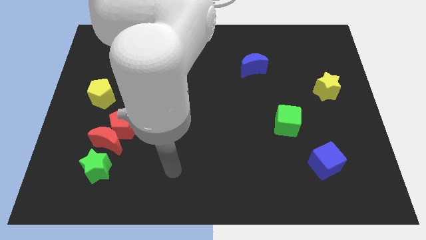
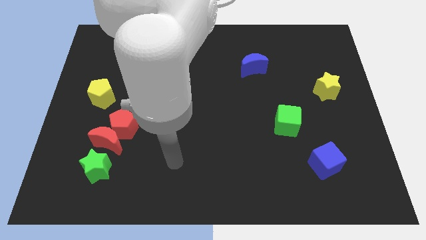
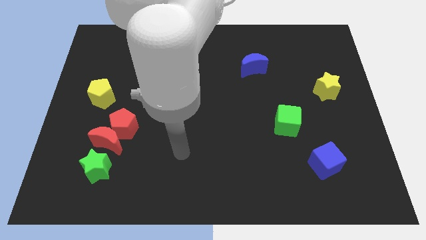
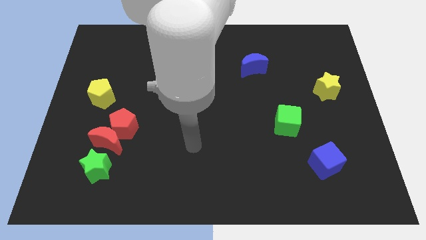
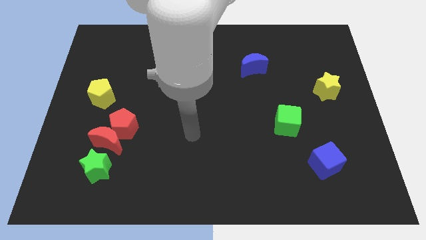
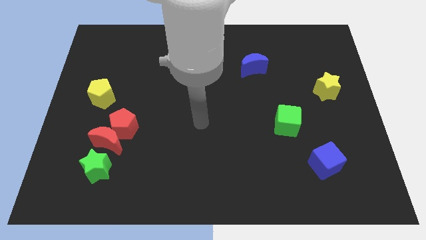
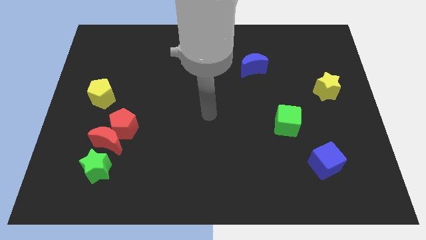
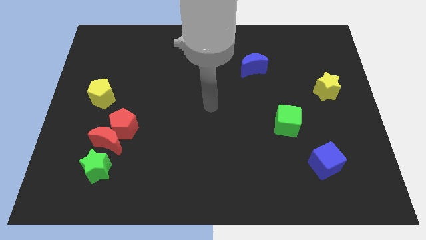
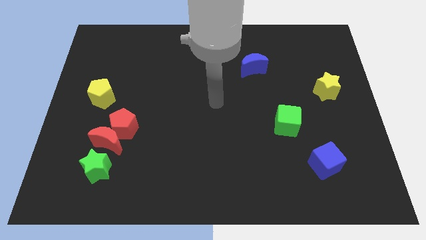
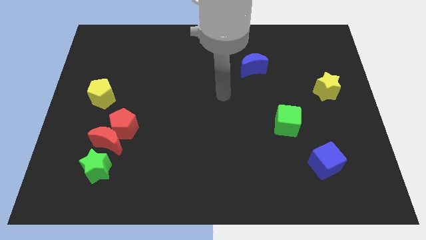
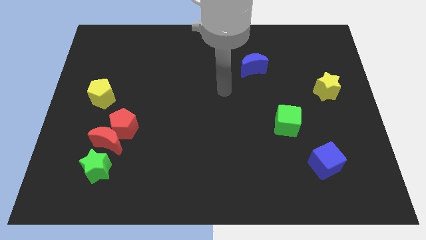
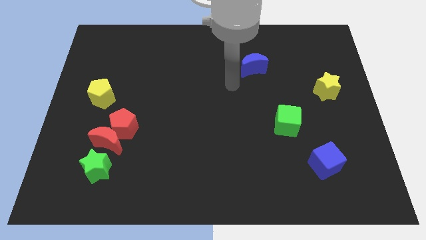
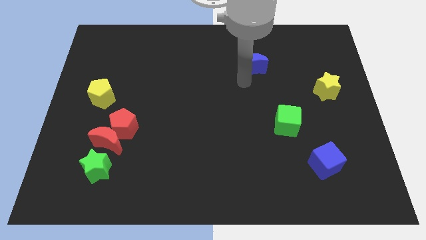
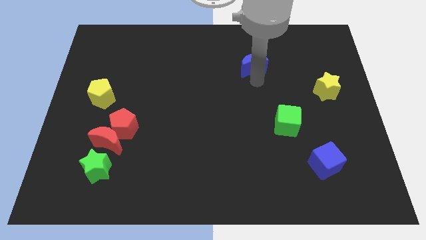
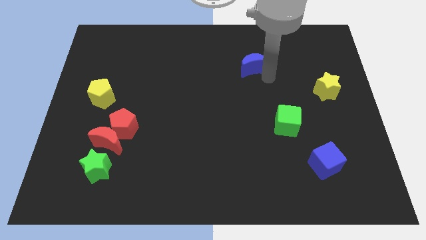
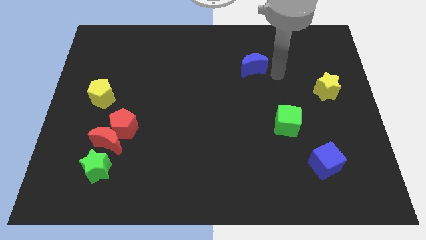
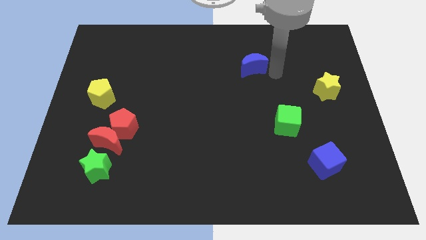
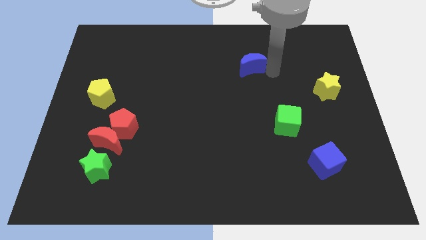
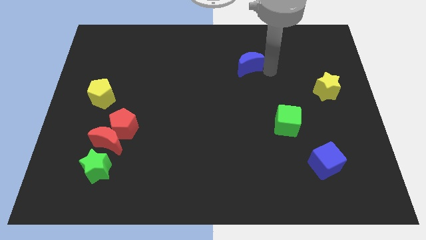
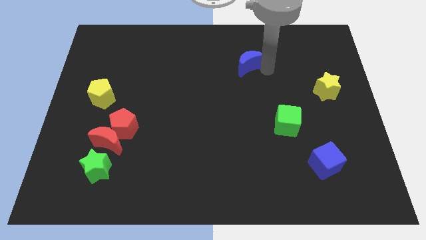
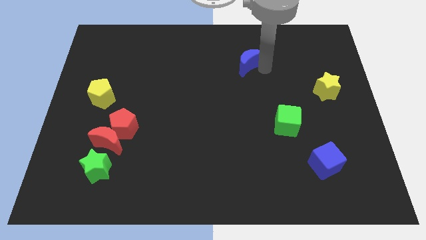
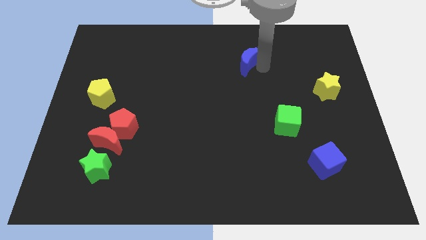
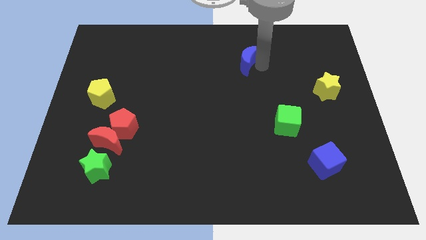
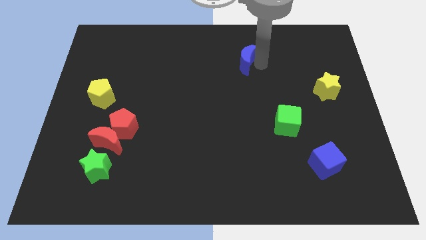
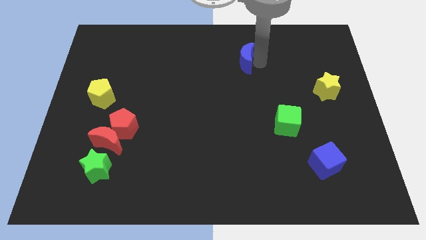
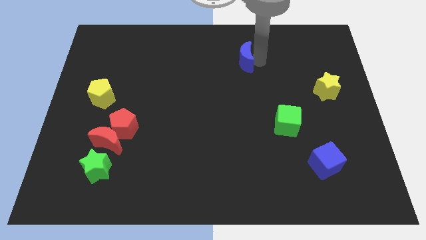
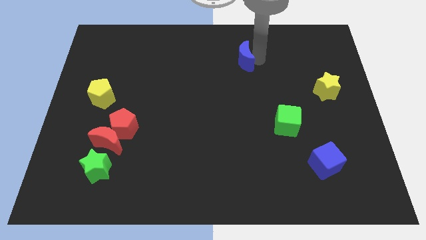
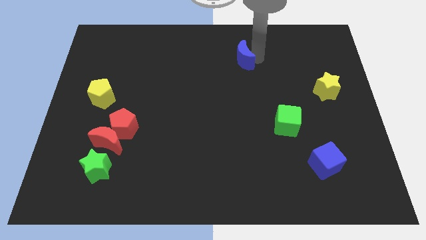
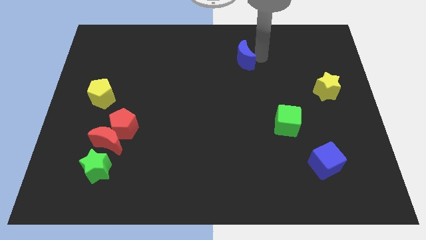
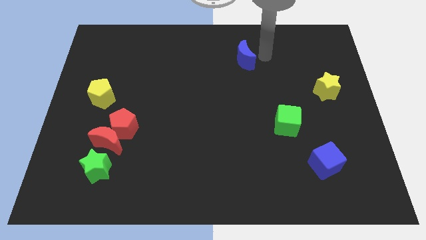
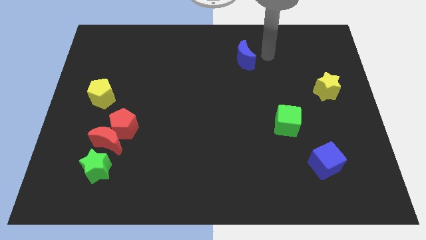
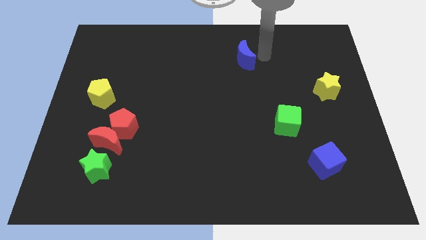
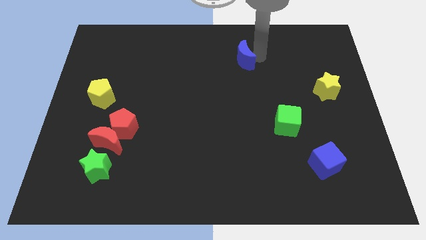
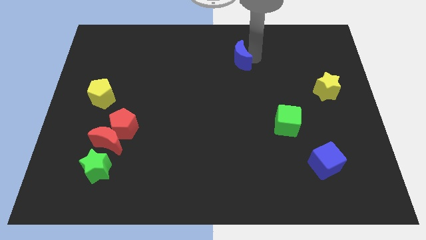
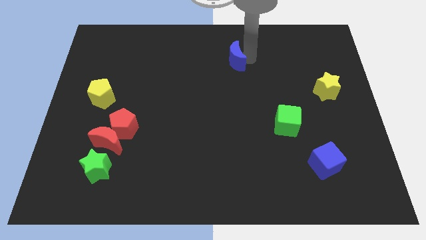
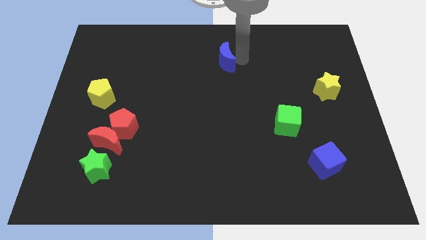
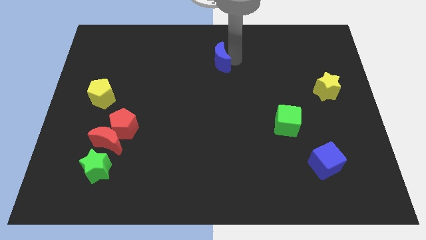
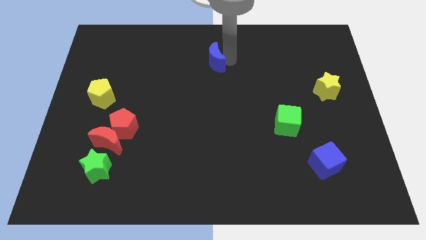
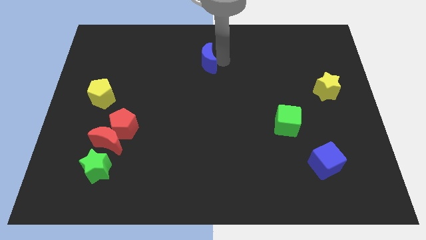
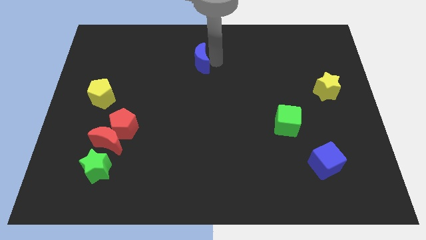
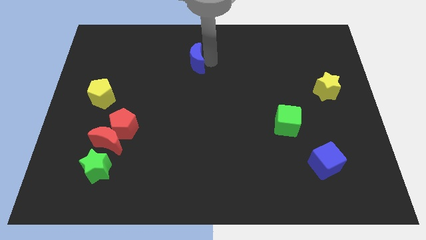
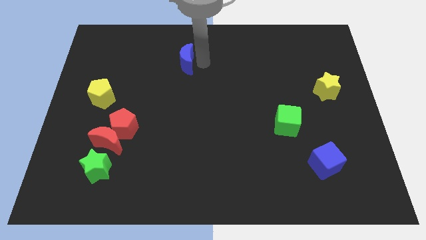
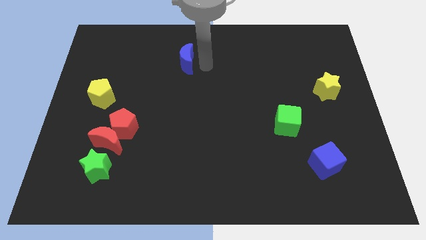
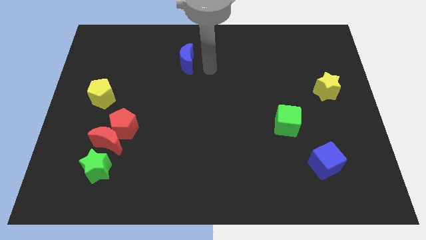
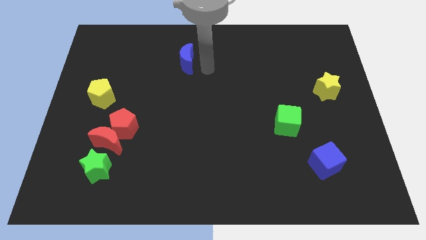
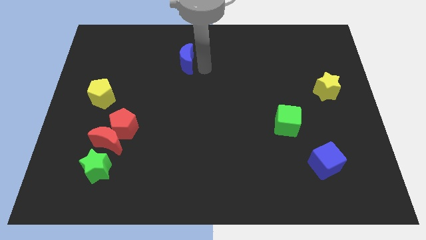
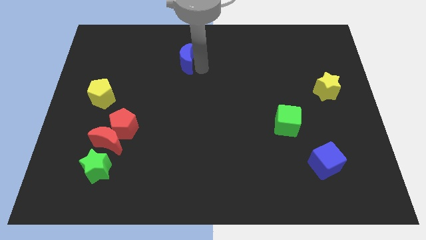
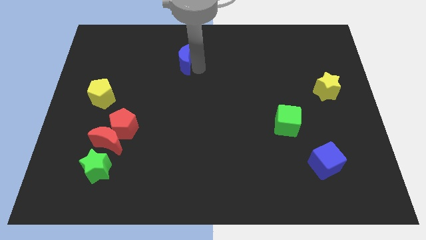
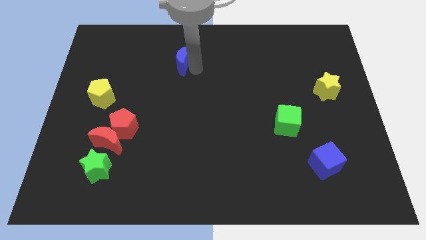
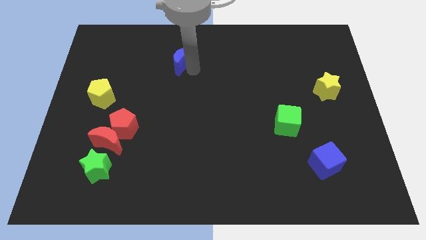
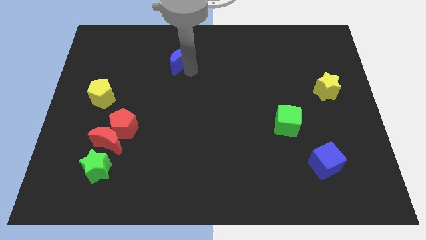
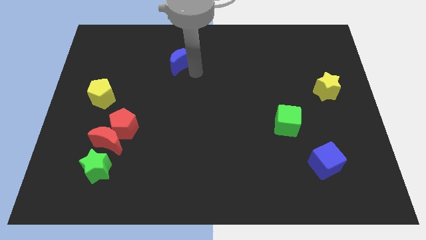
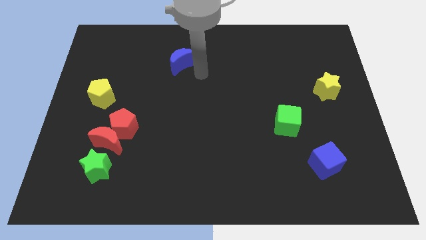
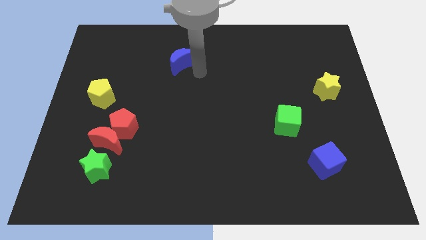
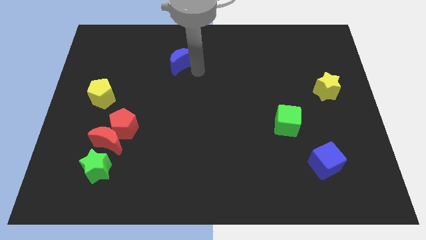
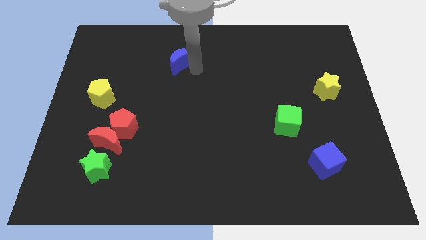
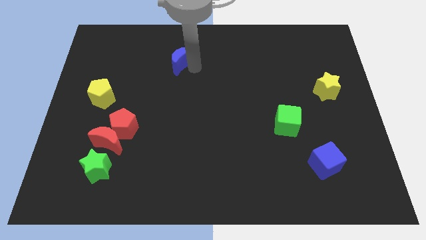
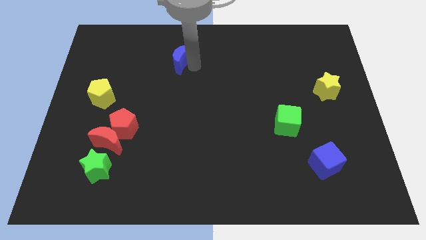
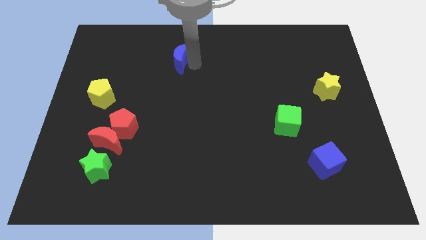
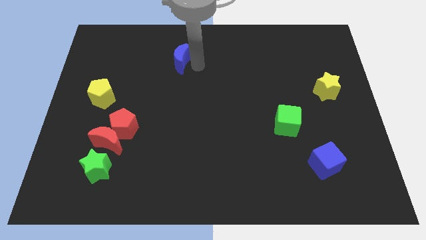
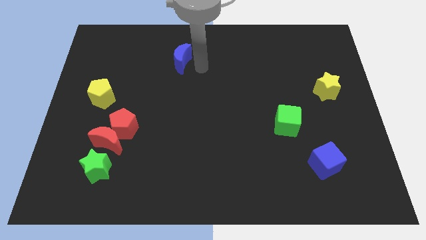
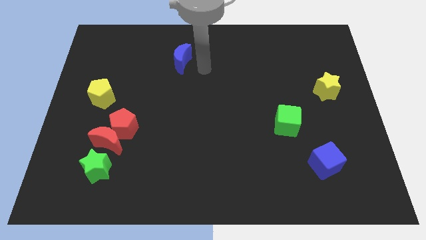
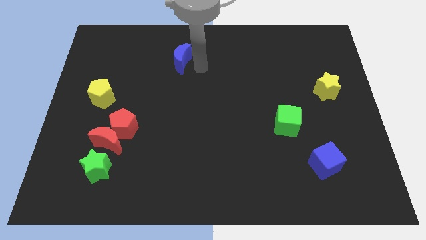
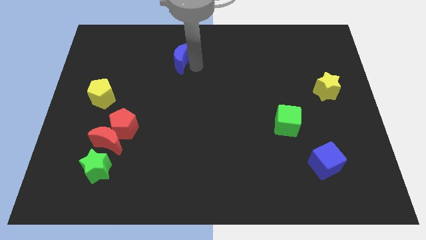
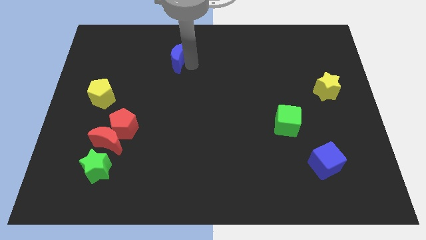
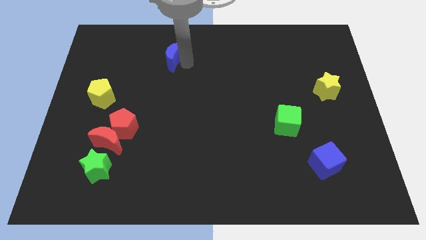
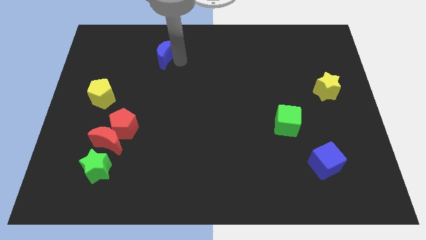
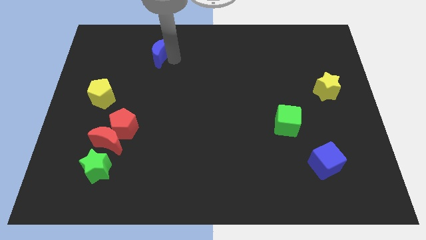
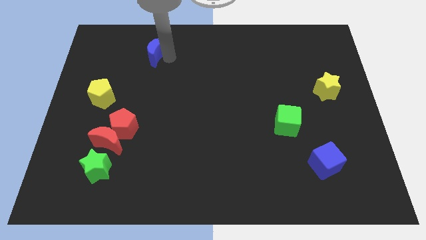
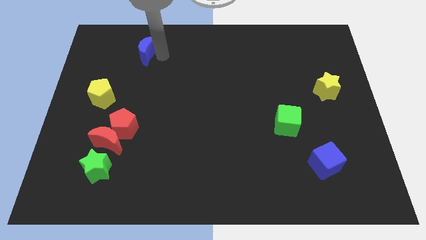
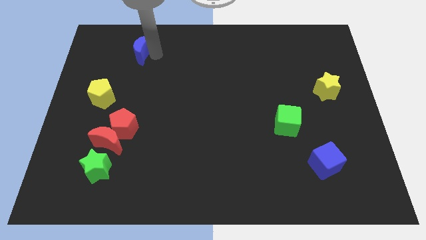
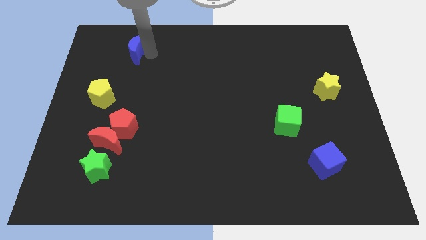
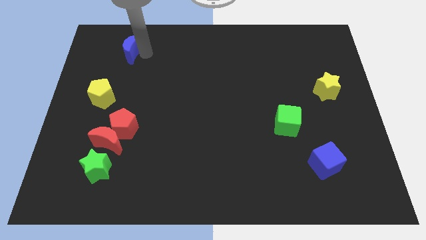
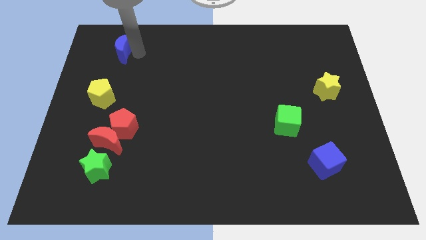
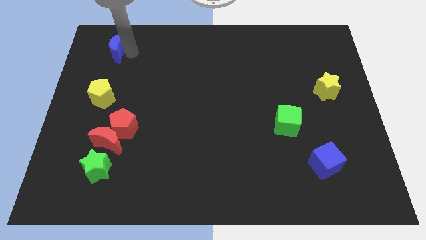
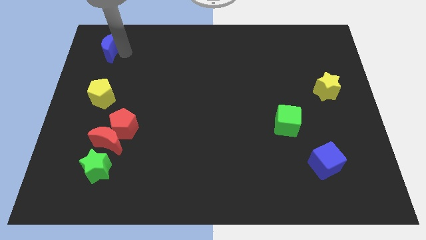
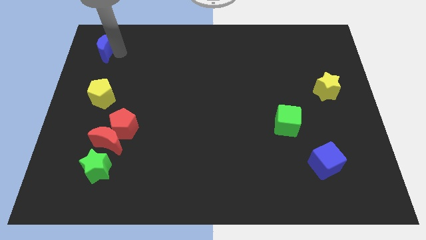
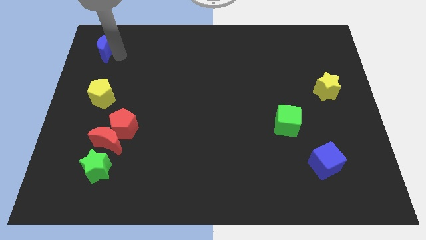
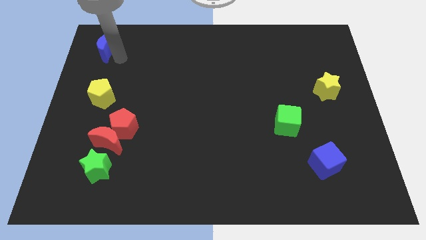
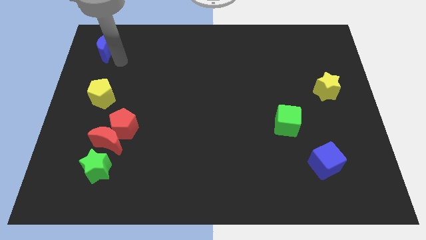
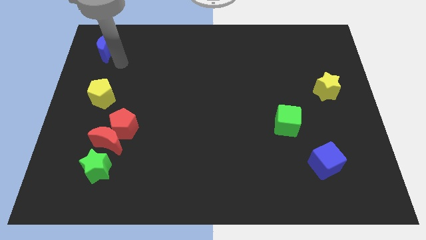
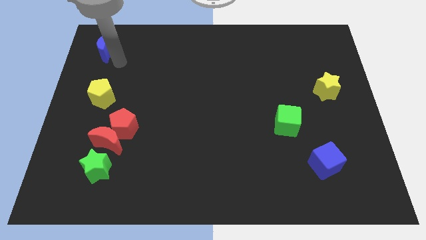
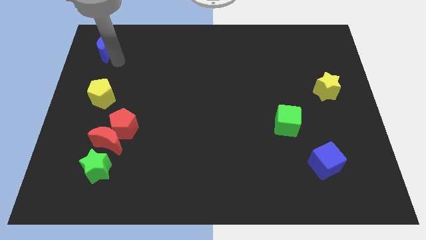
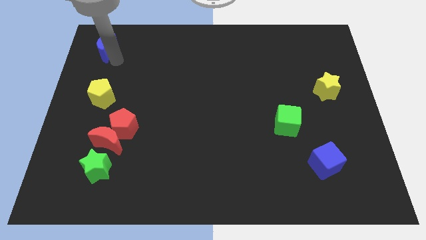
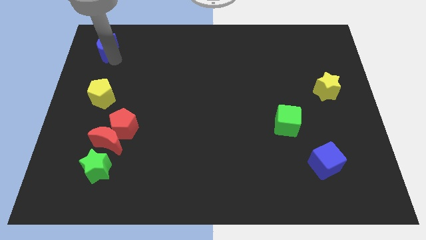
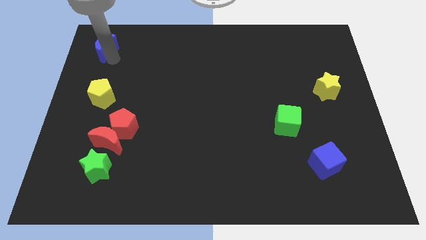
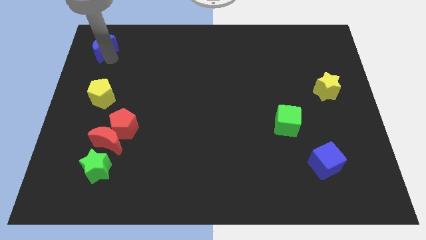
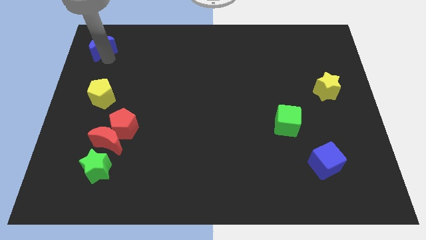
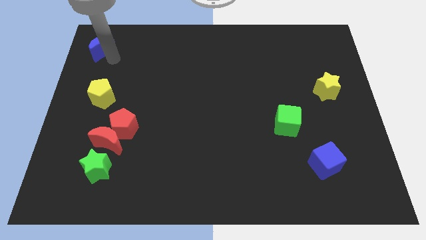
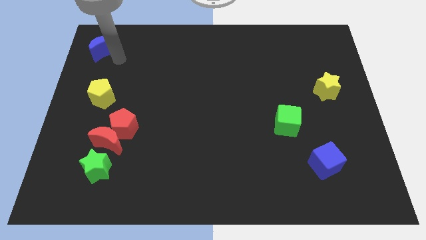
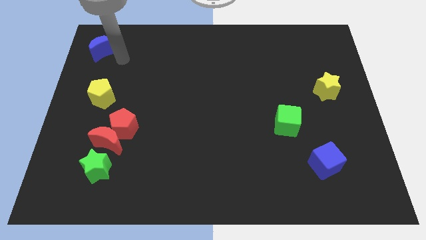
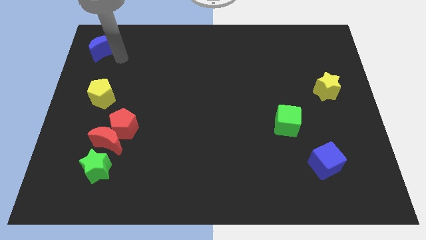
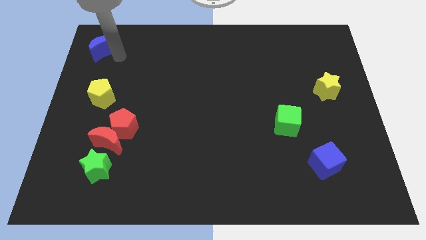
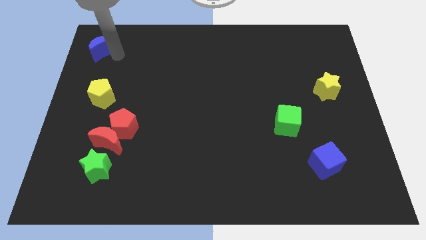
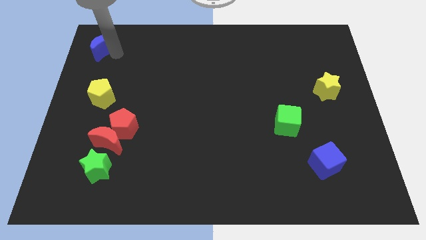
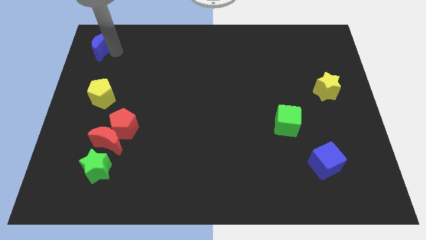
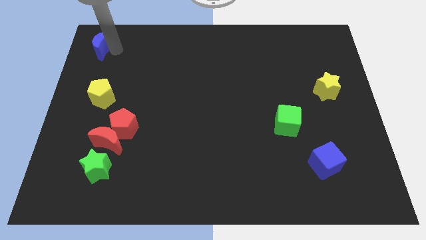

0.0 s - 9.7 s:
push the blue moon to the top left
